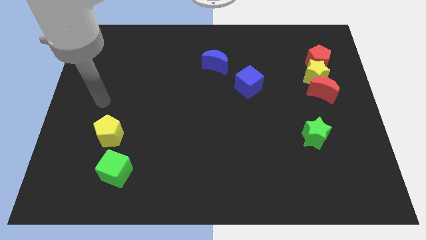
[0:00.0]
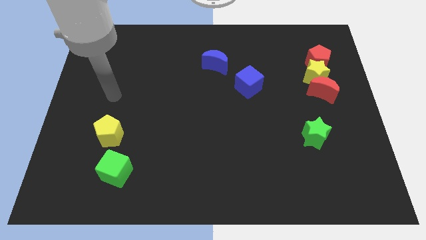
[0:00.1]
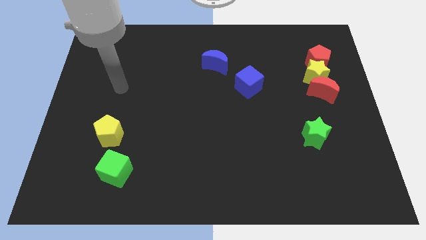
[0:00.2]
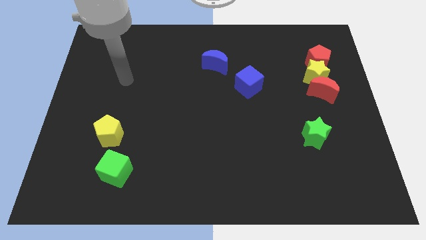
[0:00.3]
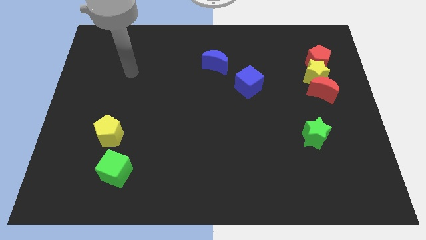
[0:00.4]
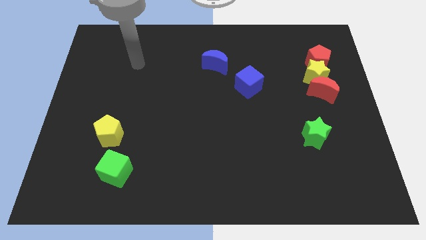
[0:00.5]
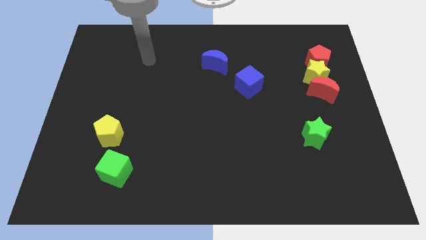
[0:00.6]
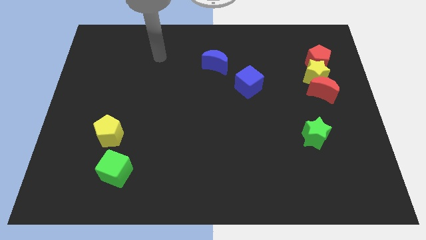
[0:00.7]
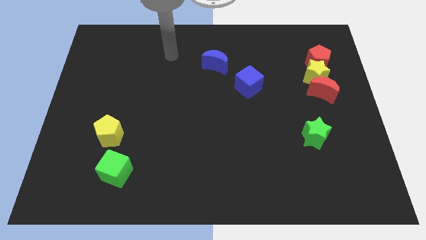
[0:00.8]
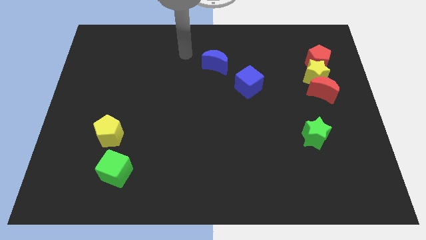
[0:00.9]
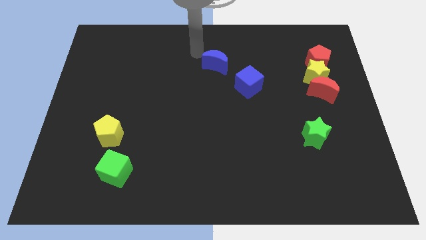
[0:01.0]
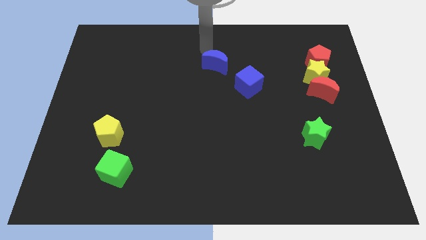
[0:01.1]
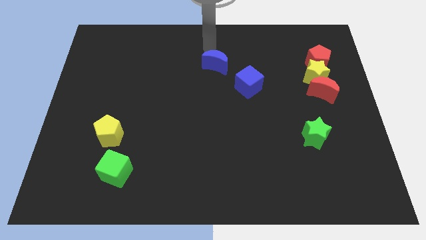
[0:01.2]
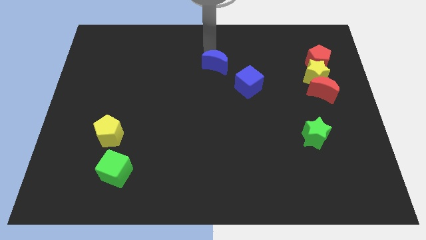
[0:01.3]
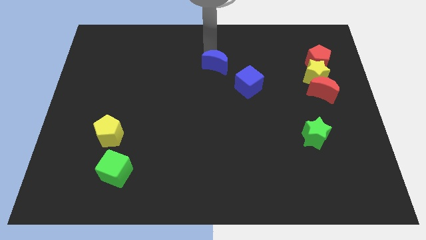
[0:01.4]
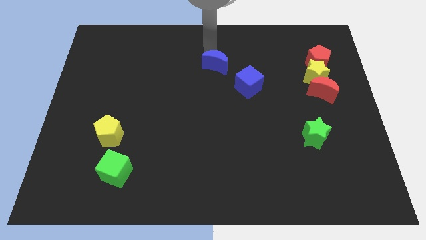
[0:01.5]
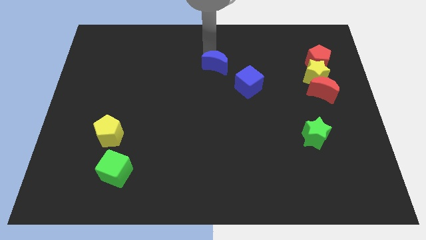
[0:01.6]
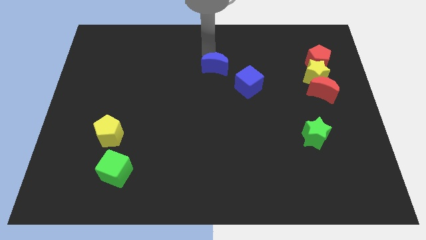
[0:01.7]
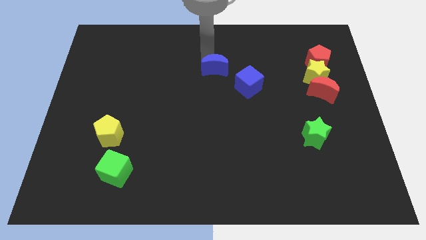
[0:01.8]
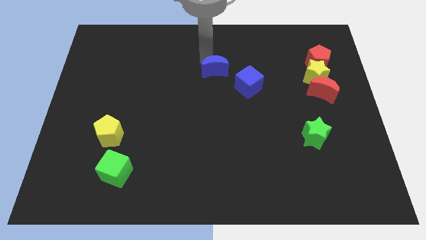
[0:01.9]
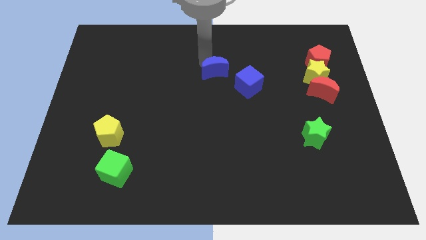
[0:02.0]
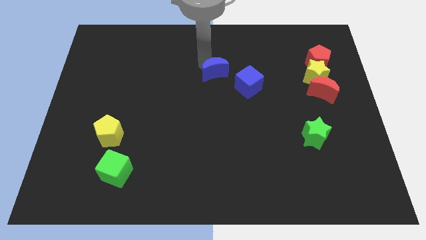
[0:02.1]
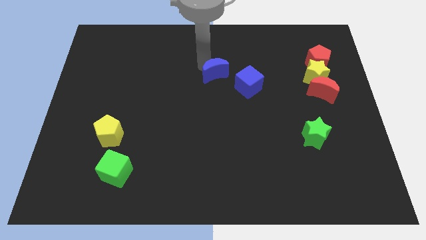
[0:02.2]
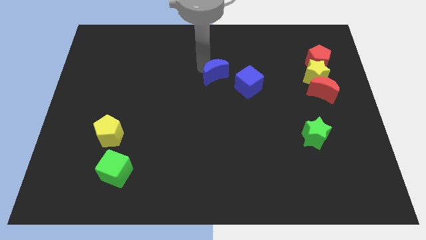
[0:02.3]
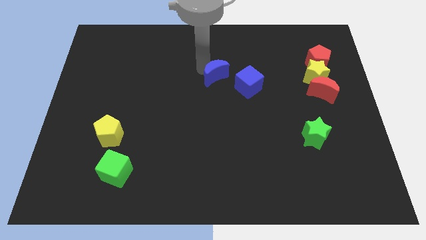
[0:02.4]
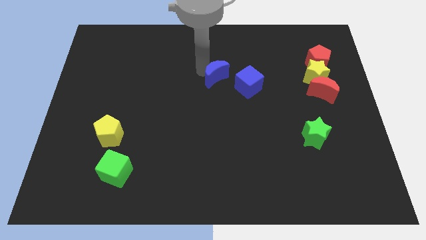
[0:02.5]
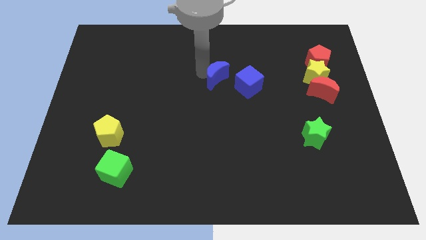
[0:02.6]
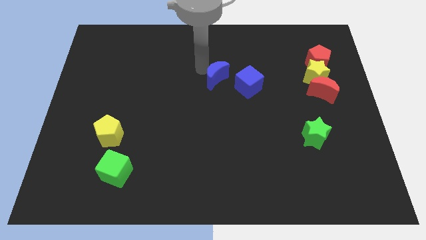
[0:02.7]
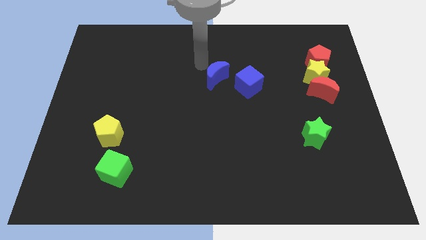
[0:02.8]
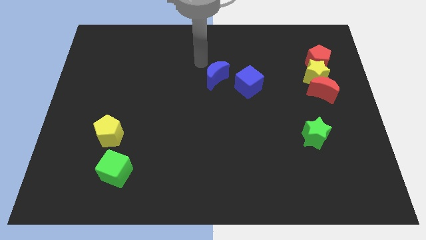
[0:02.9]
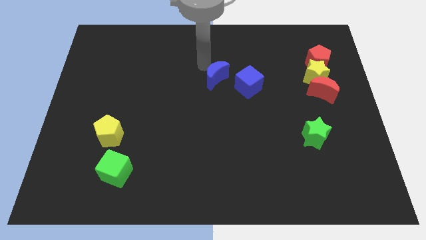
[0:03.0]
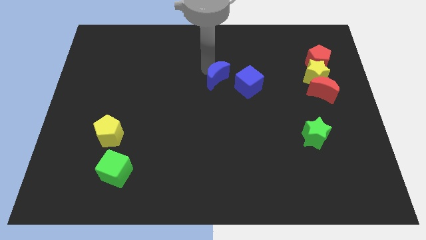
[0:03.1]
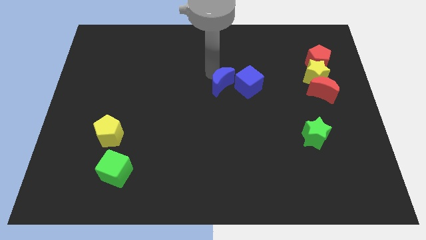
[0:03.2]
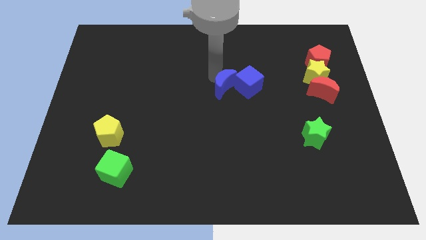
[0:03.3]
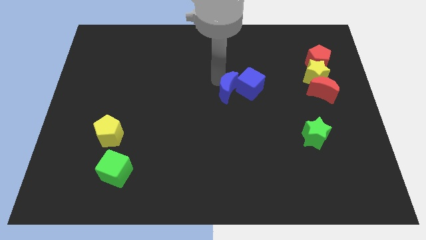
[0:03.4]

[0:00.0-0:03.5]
move the blue moon downwards and right a little

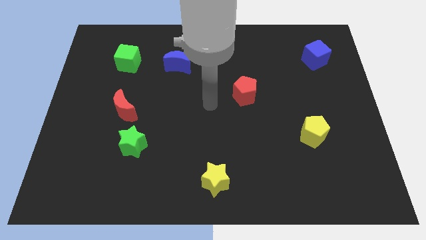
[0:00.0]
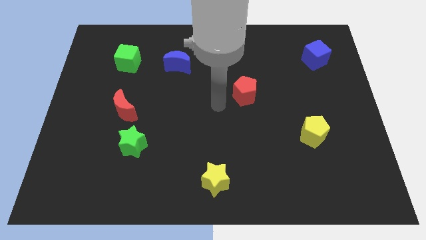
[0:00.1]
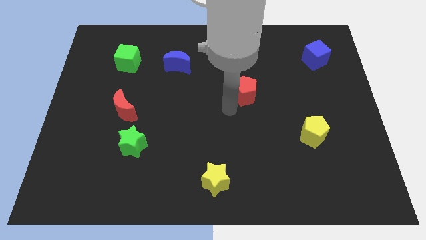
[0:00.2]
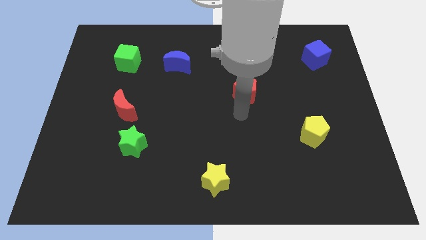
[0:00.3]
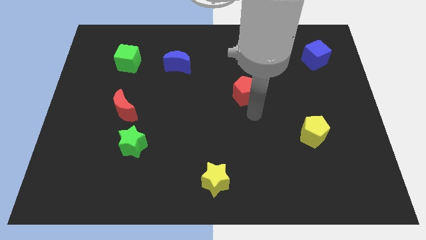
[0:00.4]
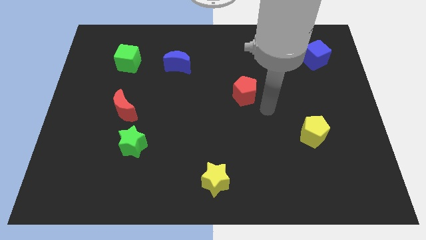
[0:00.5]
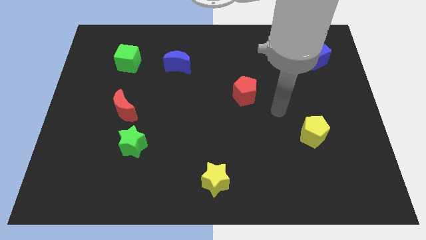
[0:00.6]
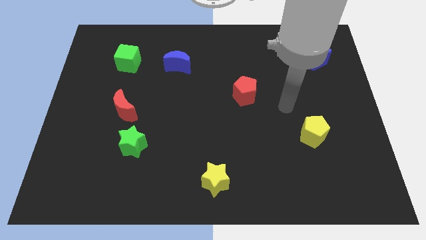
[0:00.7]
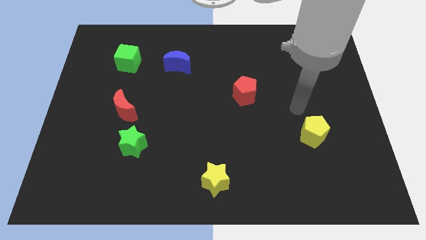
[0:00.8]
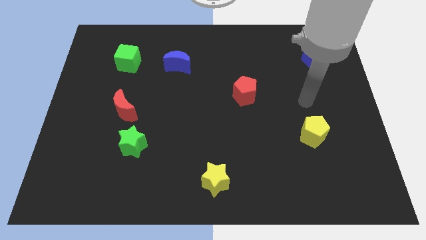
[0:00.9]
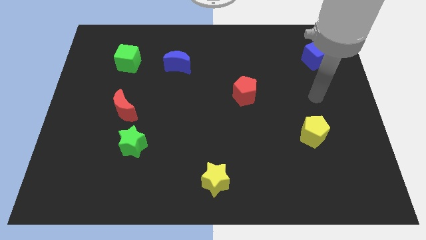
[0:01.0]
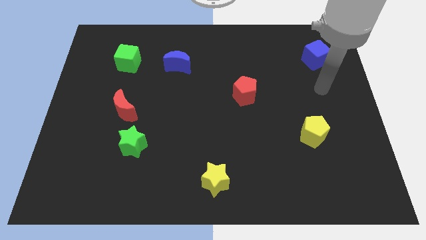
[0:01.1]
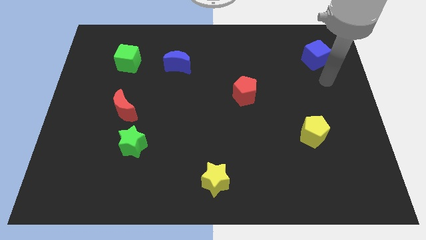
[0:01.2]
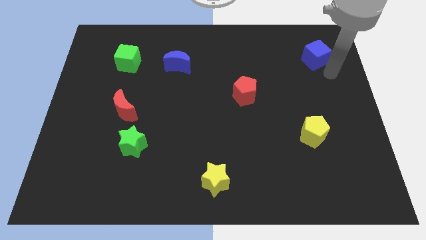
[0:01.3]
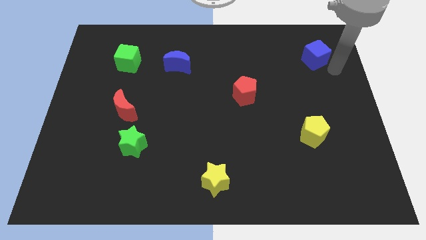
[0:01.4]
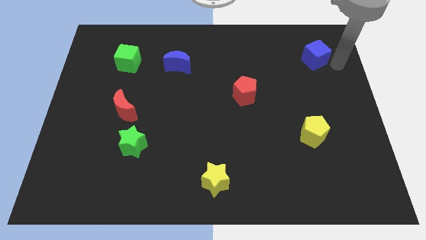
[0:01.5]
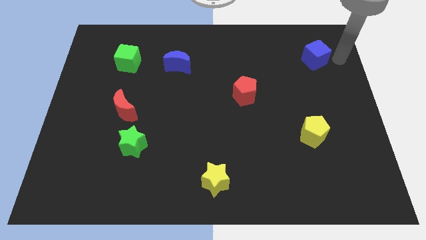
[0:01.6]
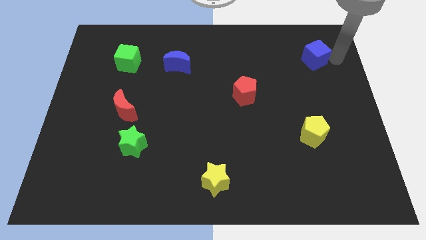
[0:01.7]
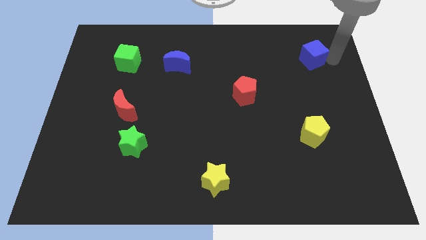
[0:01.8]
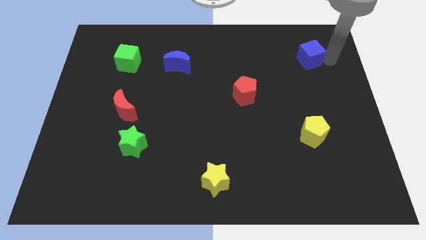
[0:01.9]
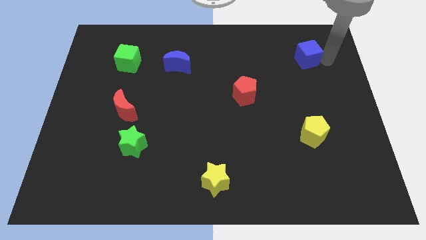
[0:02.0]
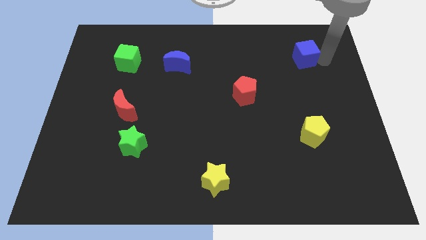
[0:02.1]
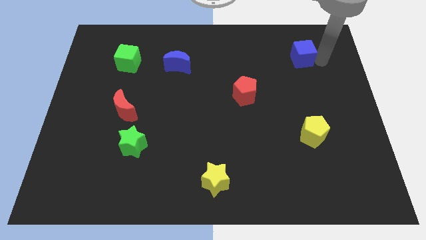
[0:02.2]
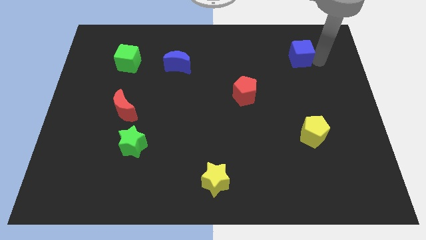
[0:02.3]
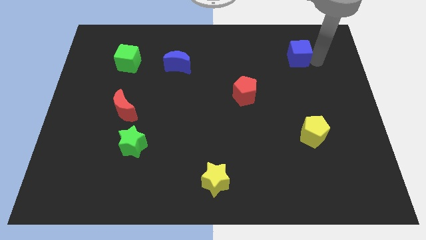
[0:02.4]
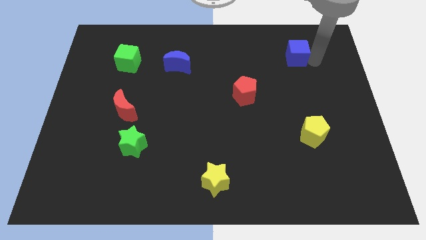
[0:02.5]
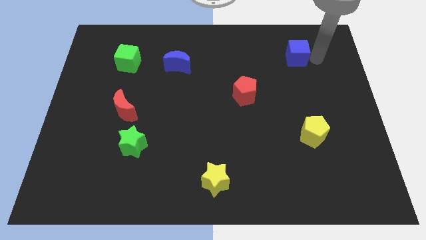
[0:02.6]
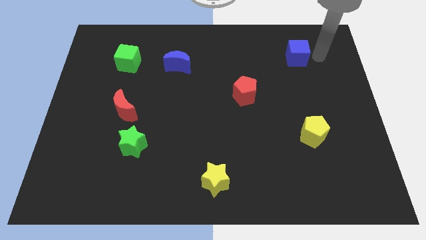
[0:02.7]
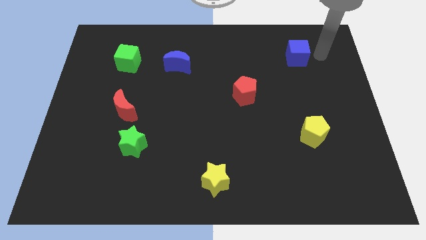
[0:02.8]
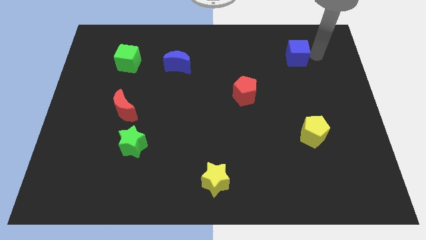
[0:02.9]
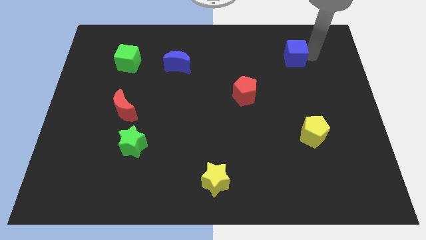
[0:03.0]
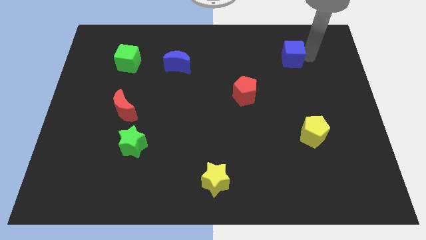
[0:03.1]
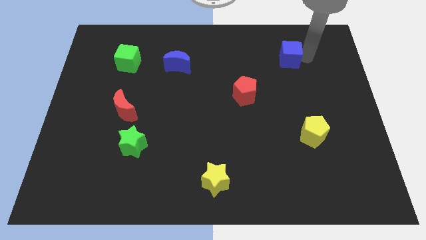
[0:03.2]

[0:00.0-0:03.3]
push the blue cube somewhat left

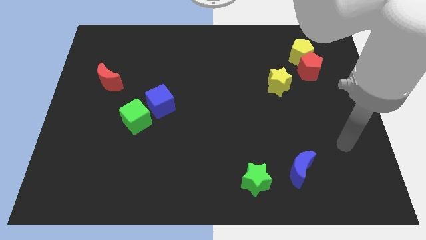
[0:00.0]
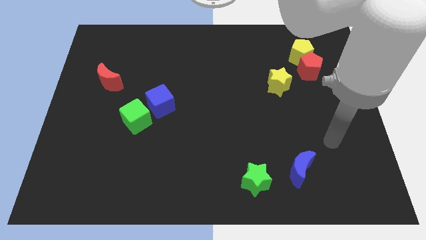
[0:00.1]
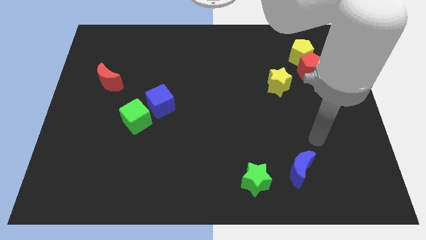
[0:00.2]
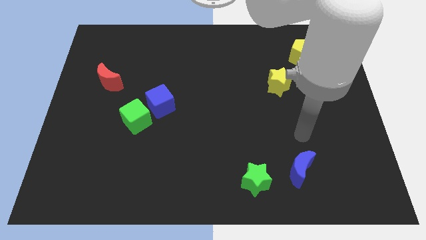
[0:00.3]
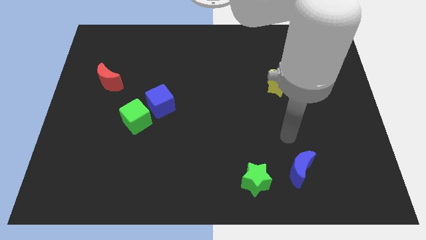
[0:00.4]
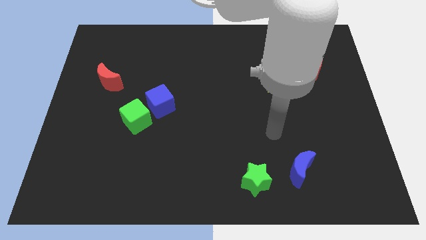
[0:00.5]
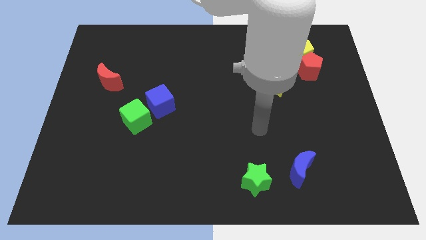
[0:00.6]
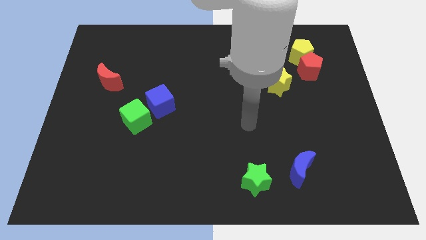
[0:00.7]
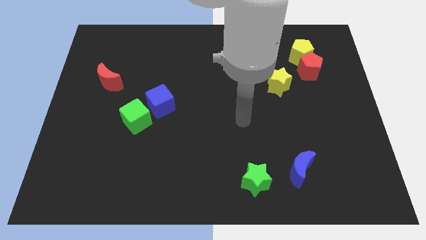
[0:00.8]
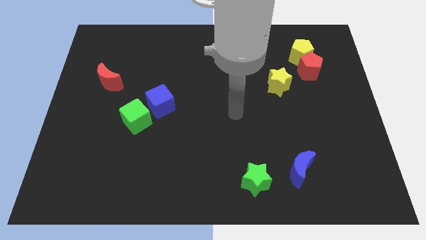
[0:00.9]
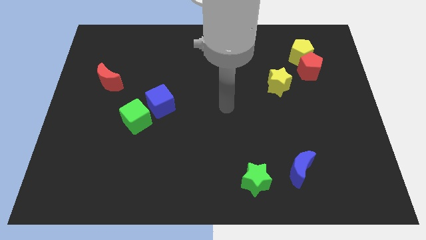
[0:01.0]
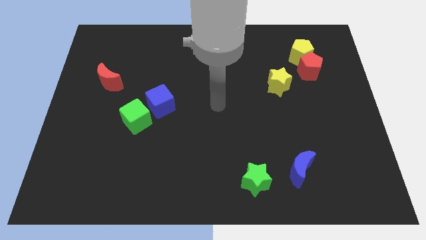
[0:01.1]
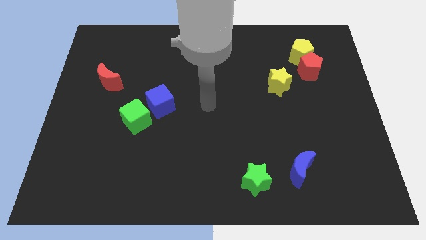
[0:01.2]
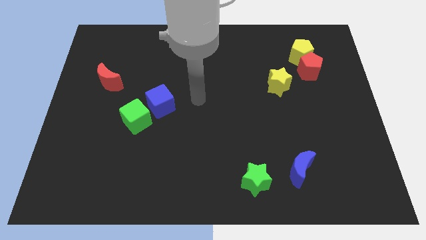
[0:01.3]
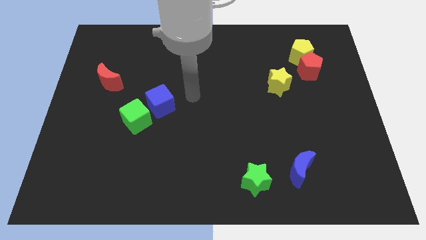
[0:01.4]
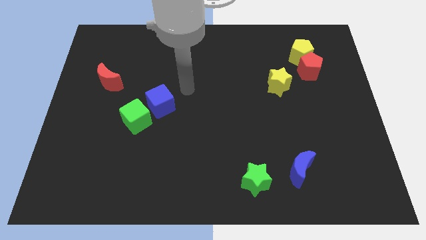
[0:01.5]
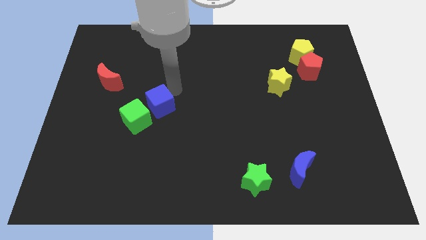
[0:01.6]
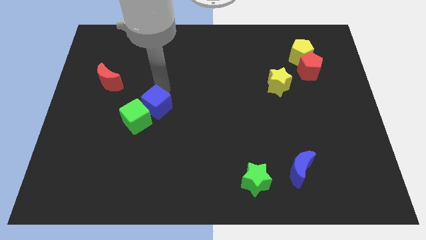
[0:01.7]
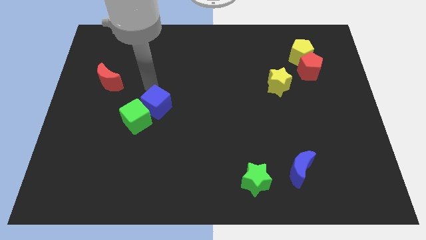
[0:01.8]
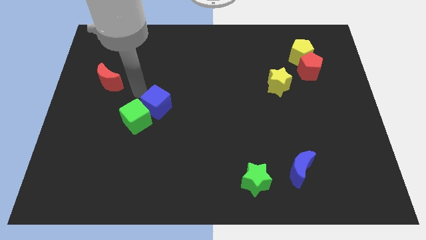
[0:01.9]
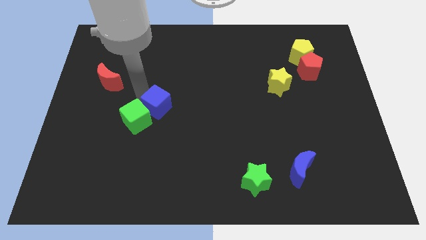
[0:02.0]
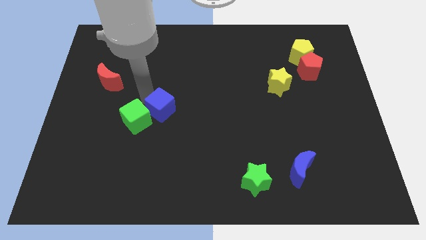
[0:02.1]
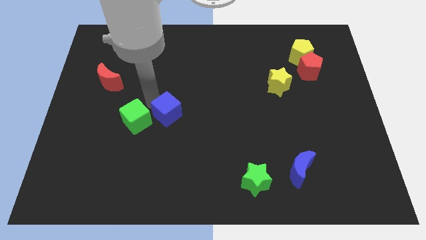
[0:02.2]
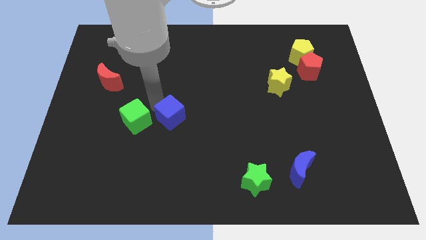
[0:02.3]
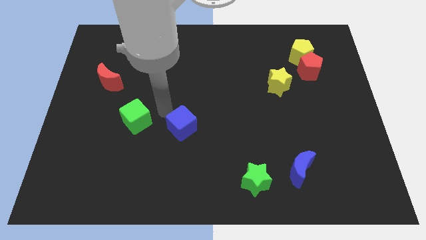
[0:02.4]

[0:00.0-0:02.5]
slightly push the blue cube downwards and then right
